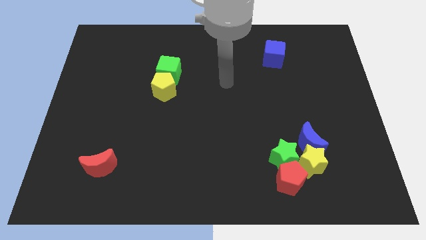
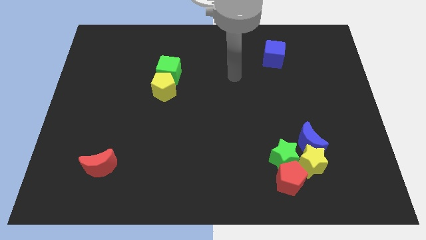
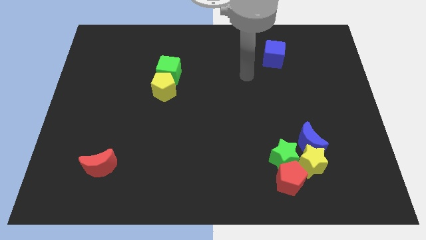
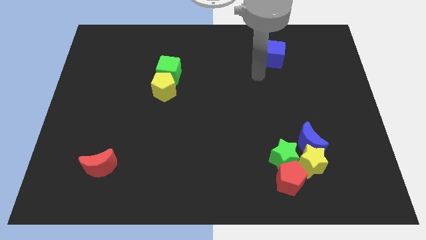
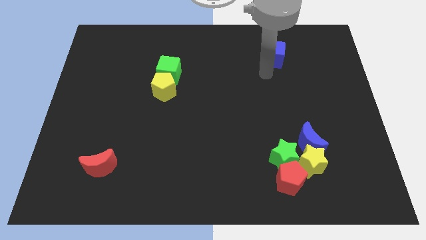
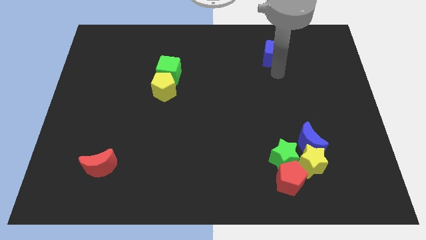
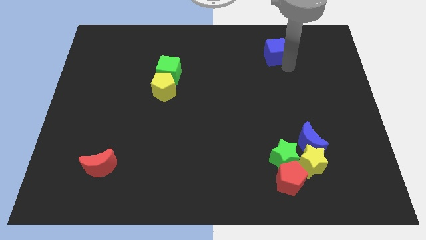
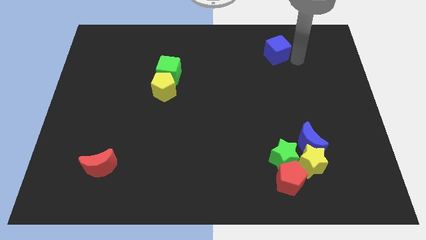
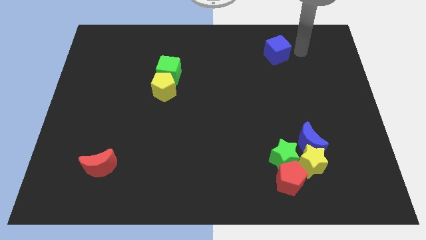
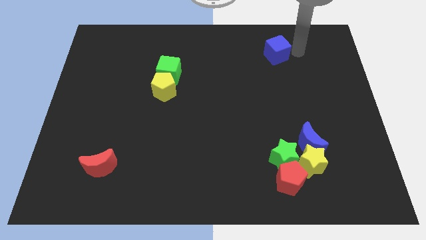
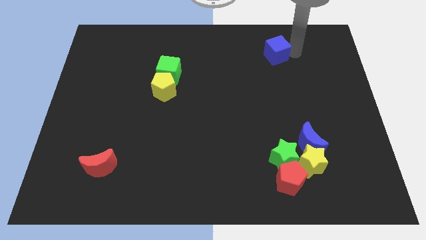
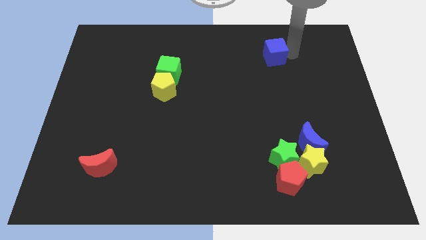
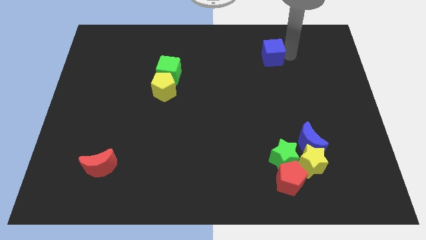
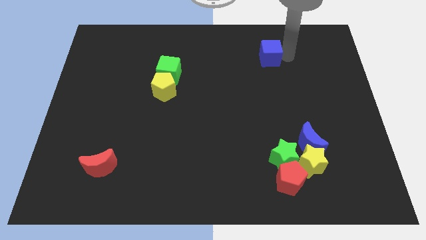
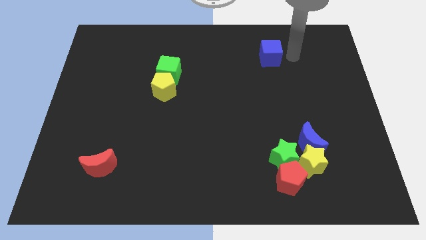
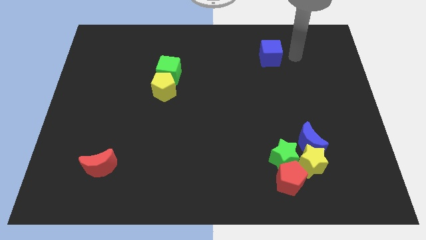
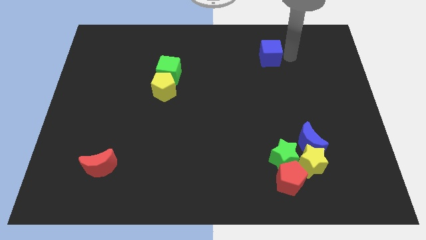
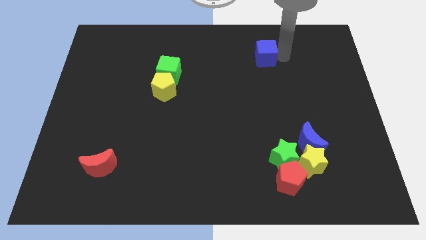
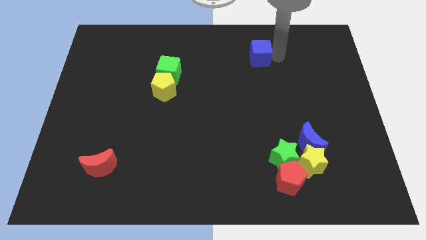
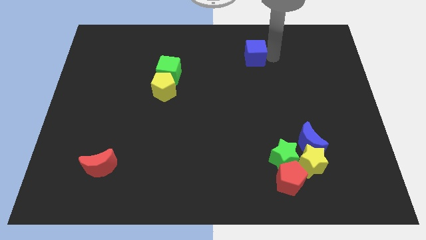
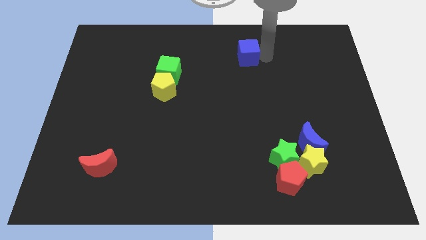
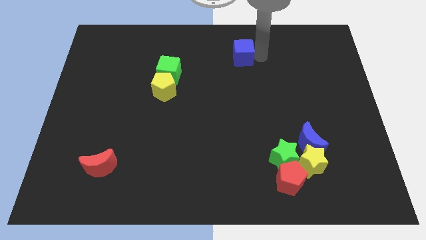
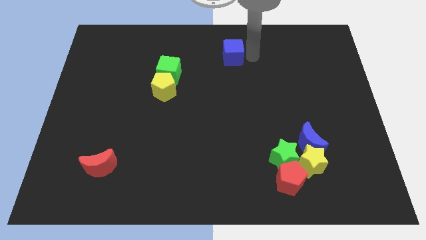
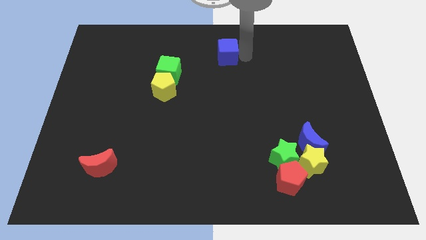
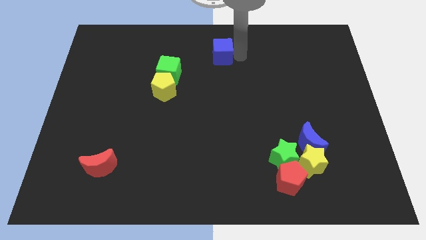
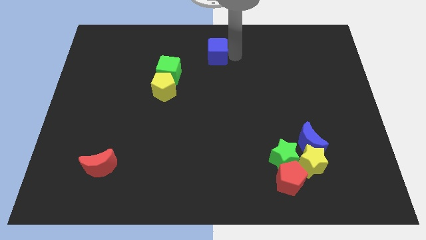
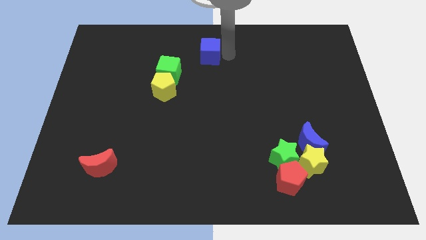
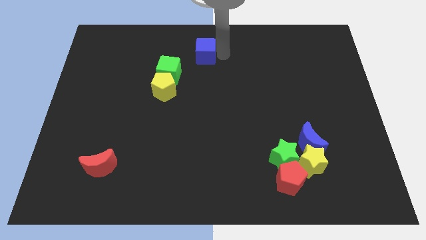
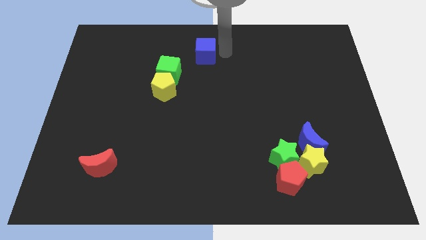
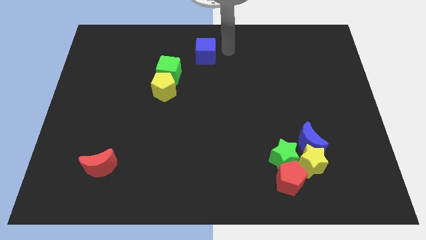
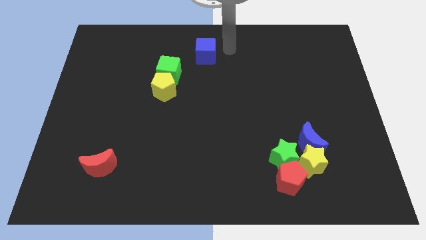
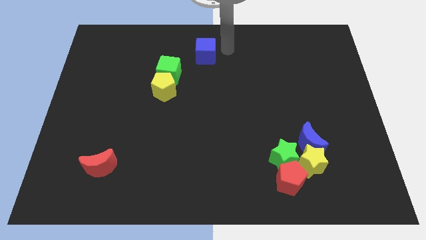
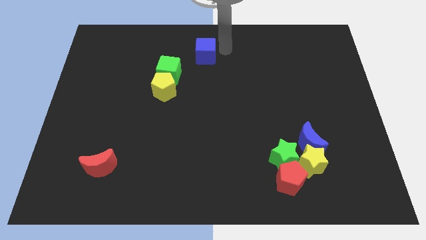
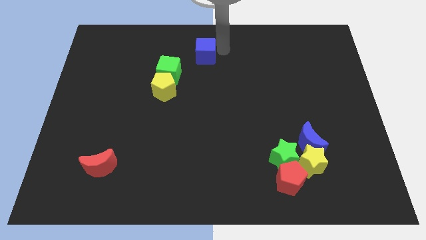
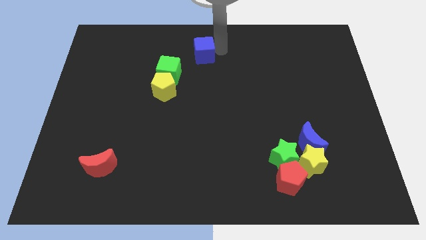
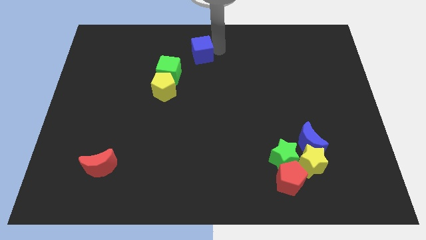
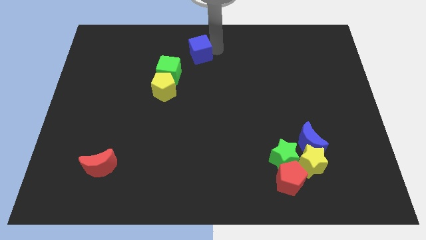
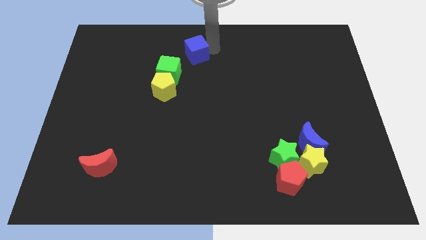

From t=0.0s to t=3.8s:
push the blue cube to the left

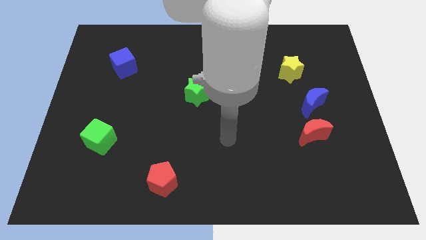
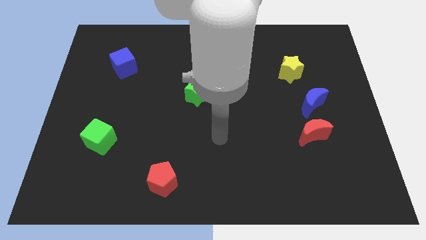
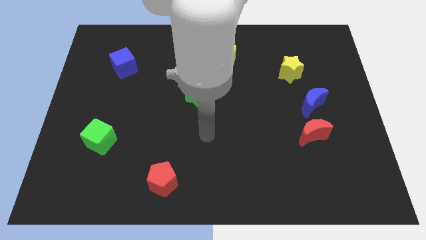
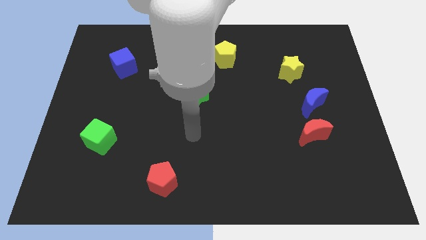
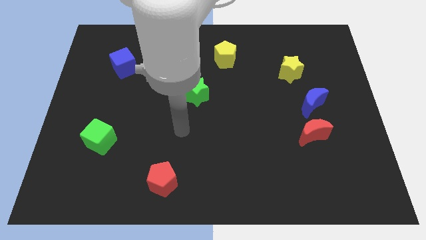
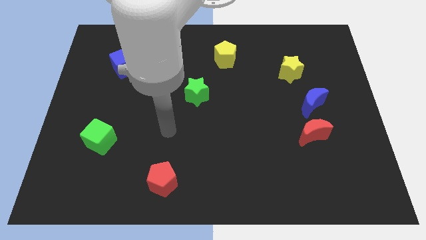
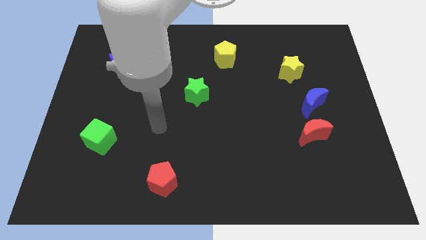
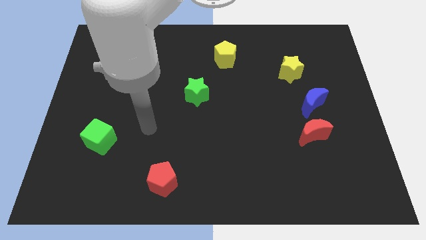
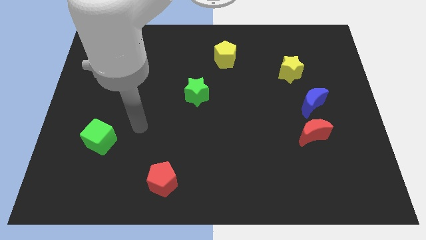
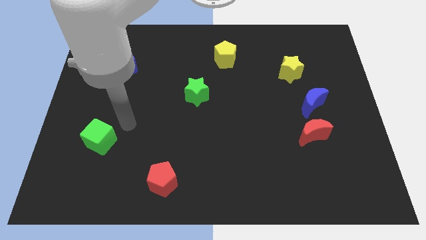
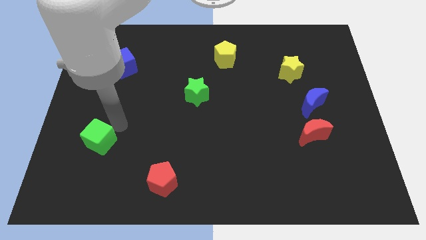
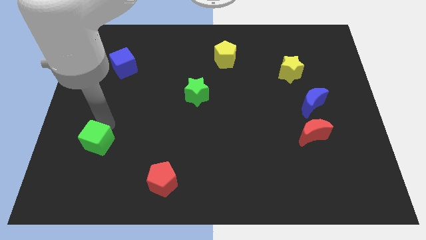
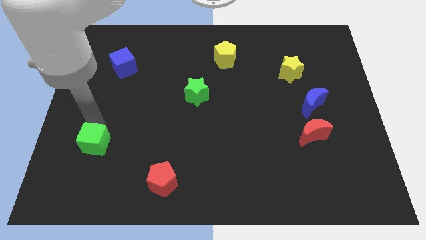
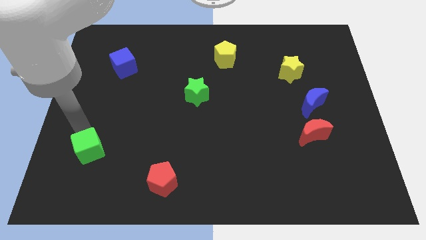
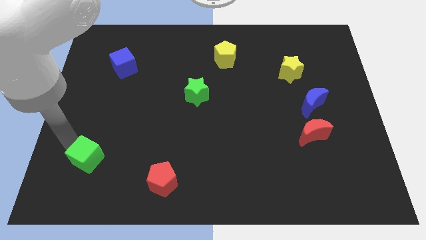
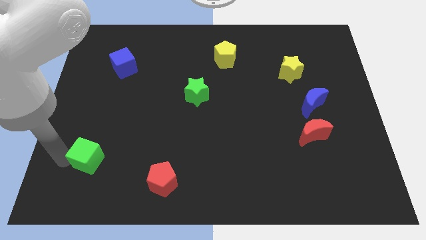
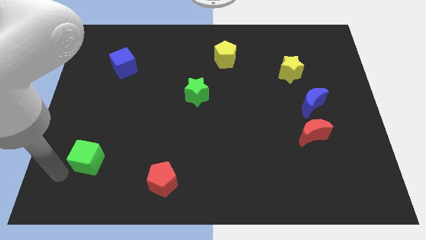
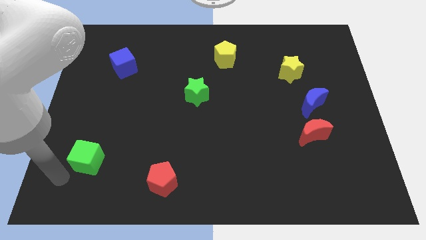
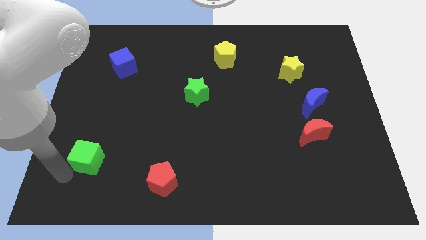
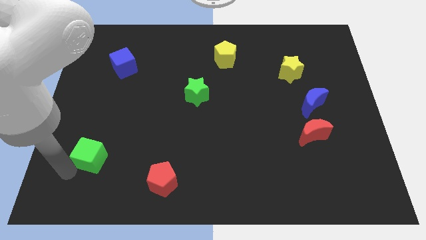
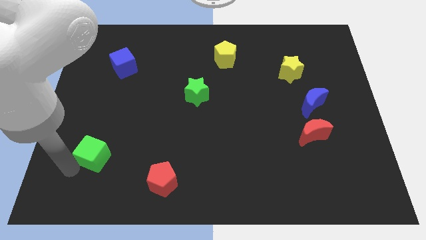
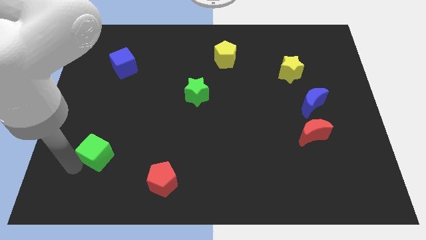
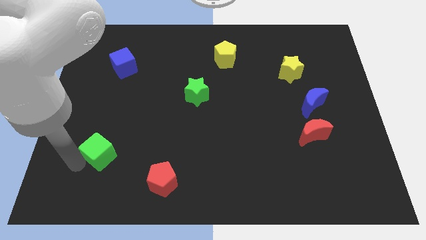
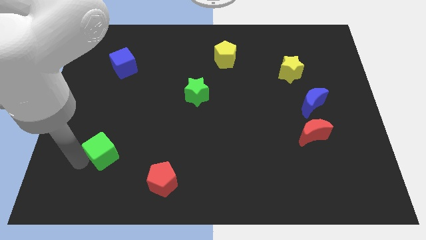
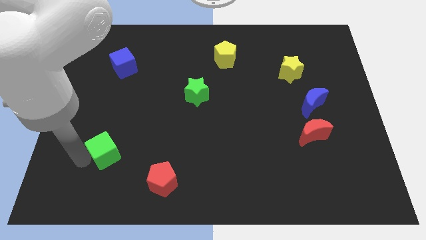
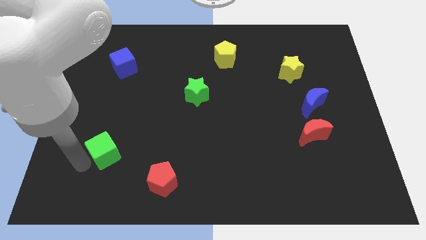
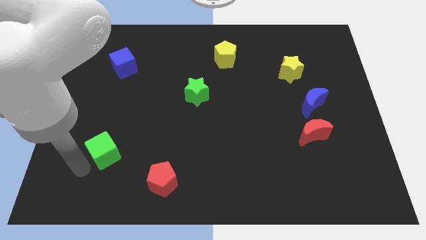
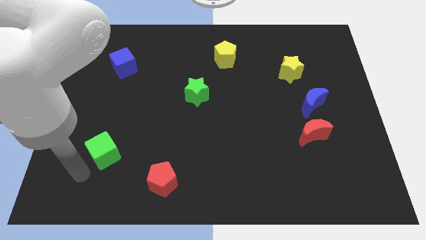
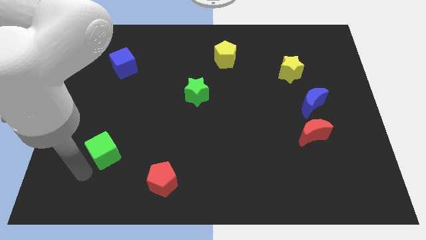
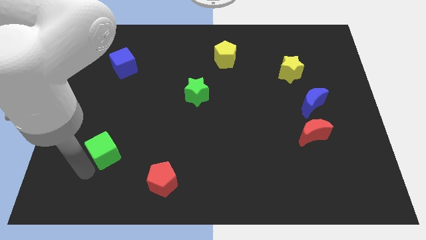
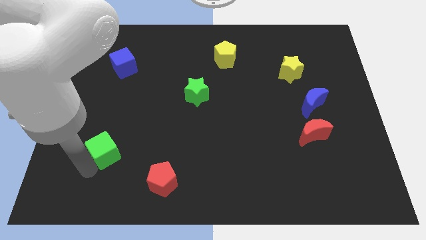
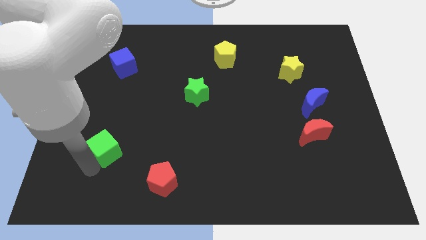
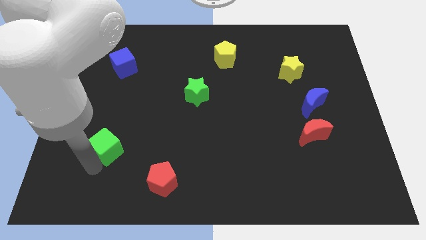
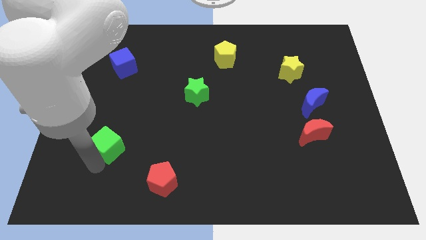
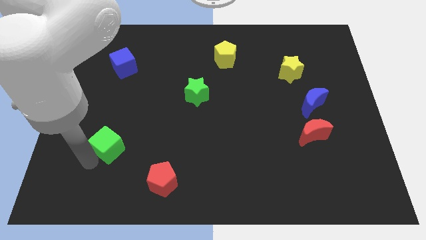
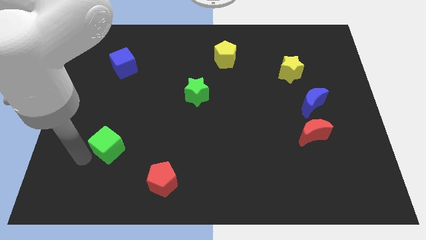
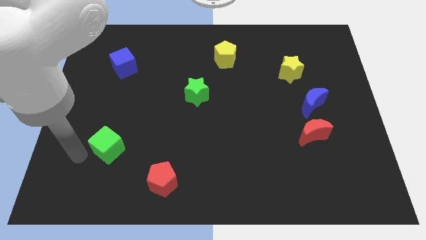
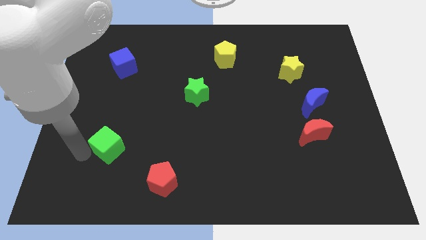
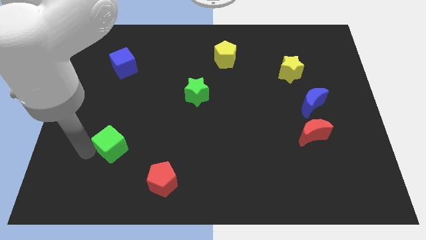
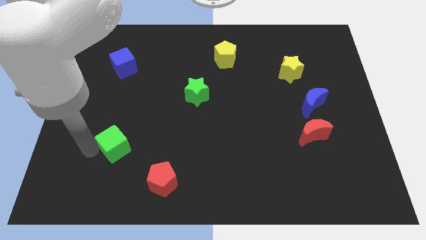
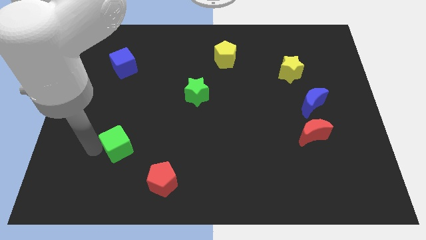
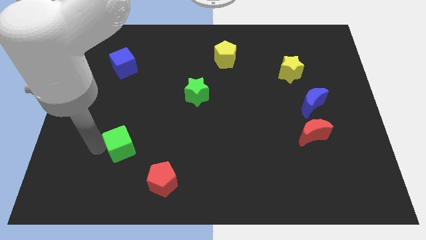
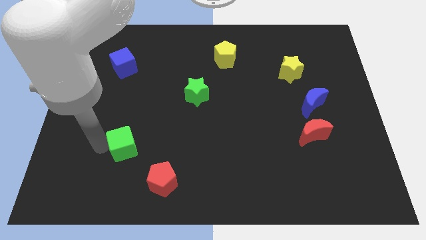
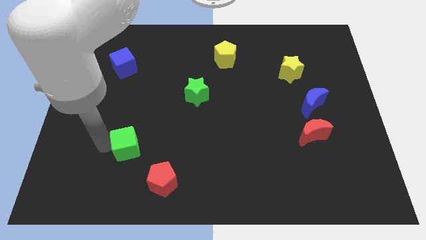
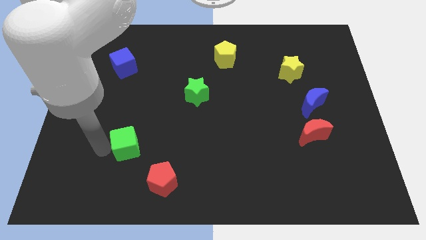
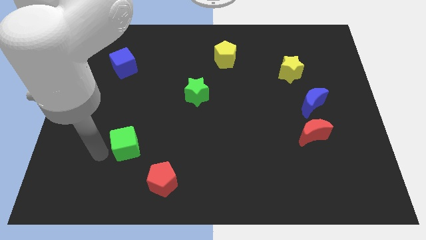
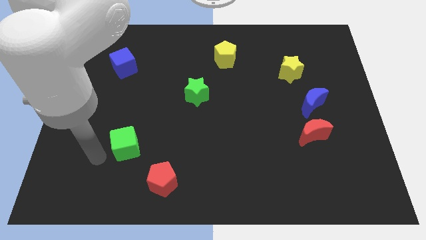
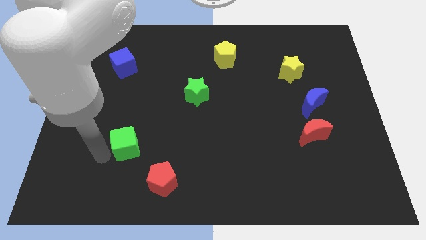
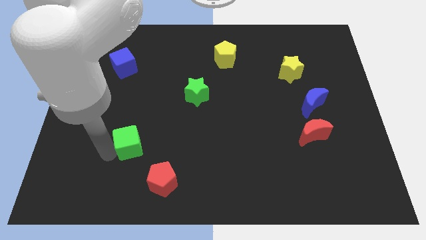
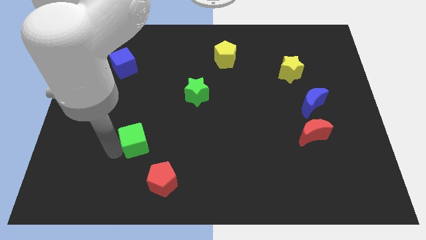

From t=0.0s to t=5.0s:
move the green cube to the right a little bit
